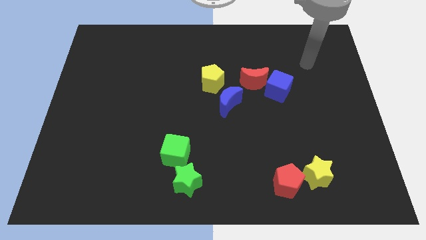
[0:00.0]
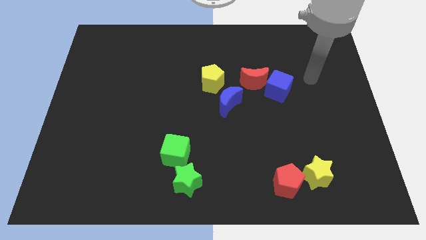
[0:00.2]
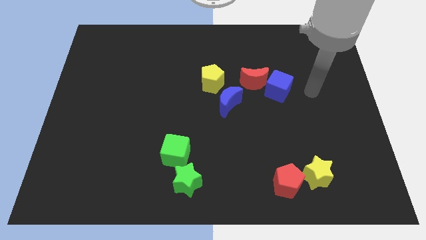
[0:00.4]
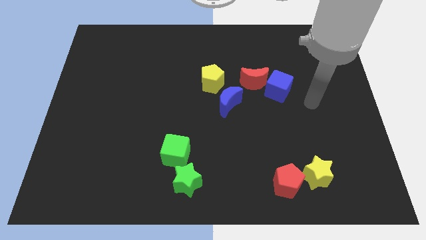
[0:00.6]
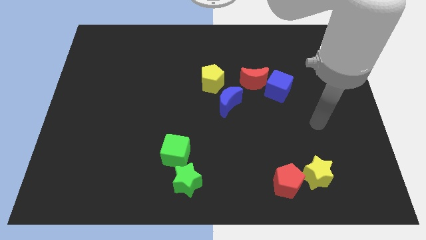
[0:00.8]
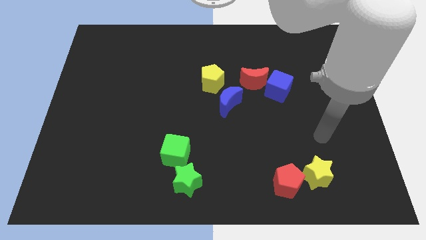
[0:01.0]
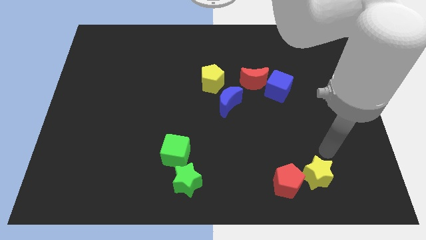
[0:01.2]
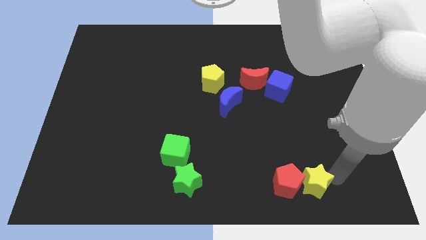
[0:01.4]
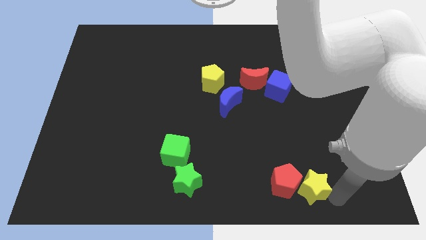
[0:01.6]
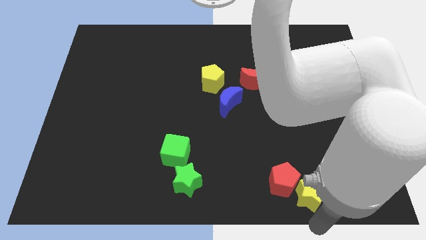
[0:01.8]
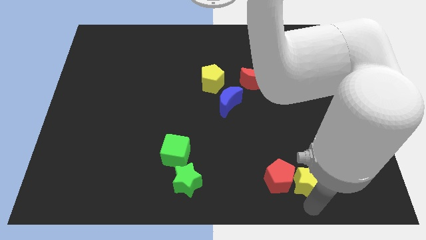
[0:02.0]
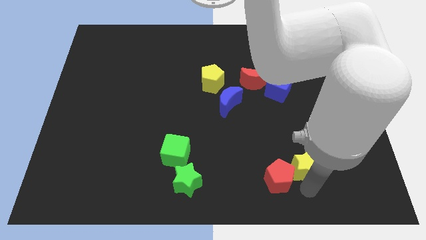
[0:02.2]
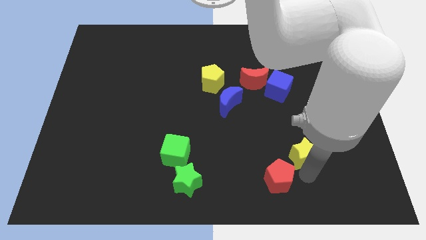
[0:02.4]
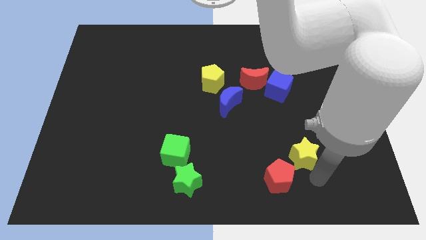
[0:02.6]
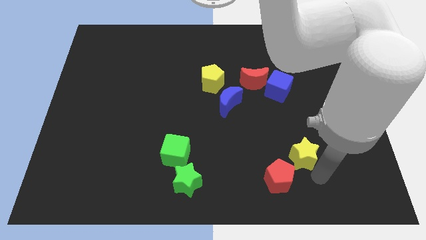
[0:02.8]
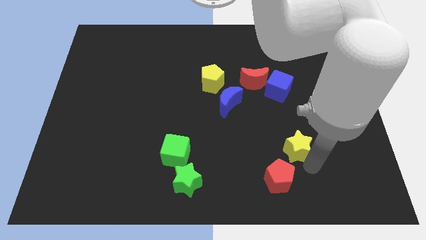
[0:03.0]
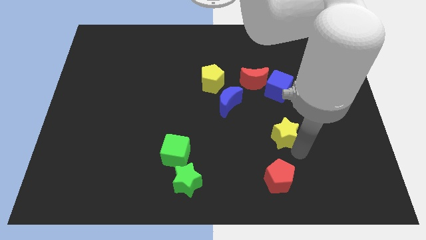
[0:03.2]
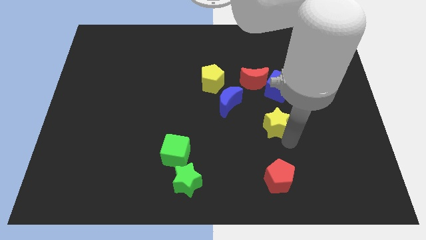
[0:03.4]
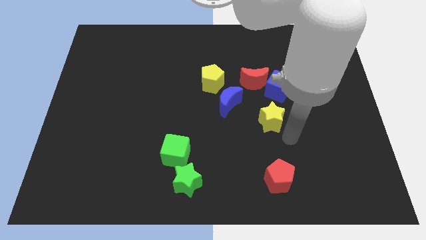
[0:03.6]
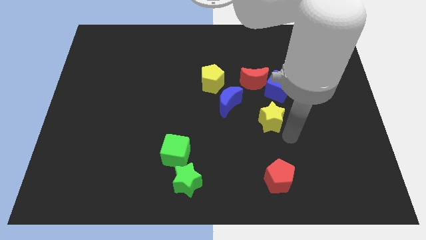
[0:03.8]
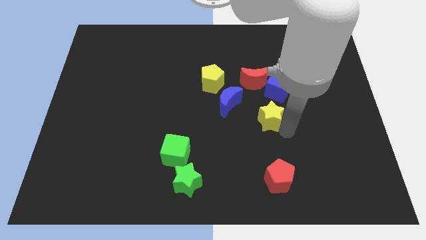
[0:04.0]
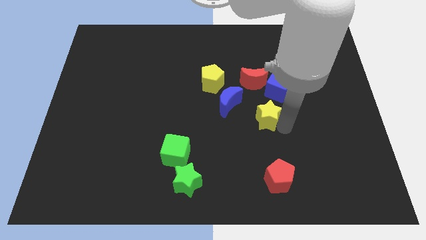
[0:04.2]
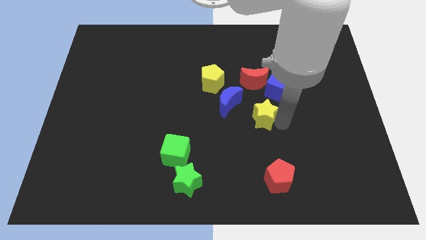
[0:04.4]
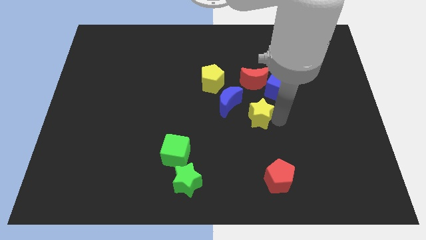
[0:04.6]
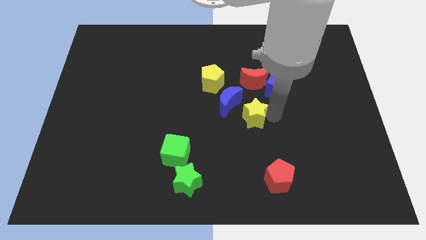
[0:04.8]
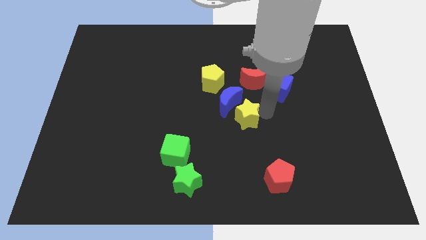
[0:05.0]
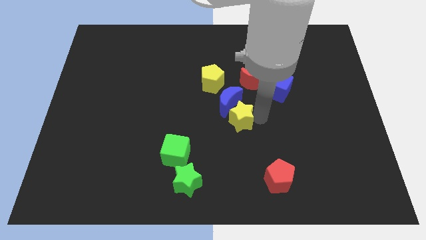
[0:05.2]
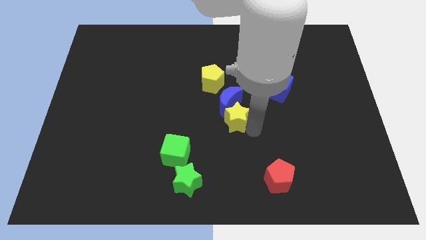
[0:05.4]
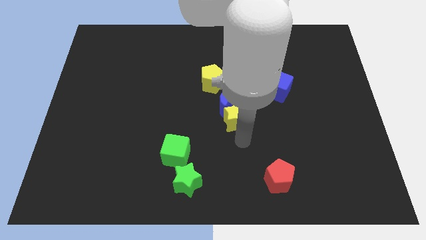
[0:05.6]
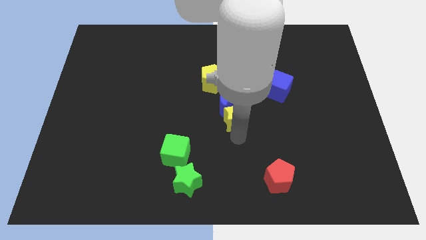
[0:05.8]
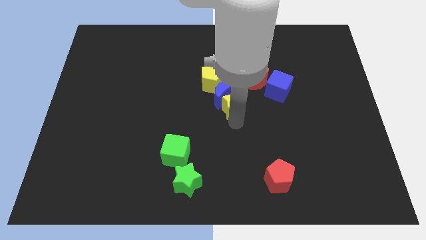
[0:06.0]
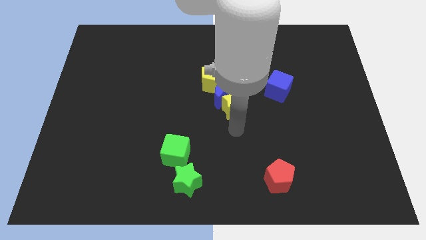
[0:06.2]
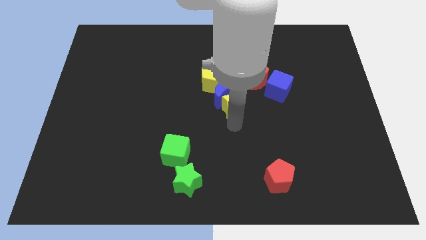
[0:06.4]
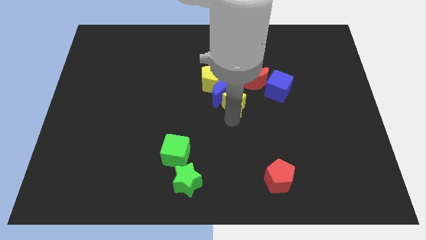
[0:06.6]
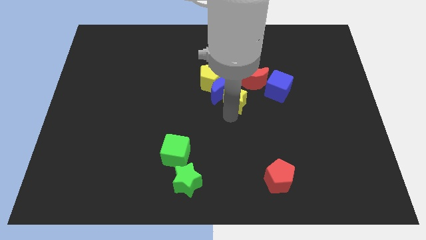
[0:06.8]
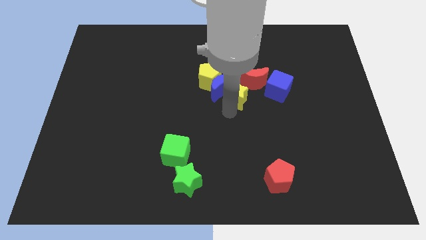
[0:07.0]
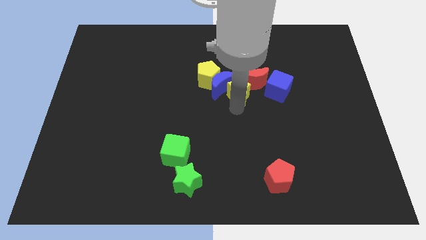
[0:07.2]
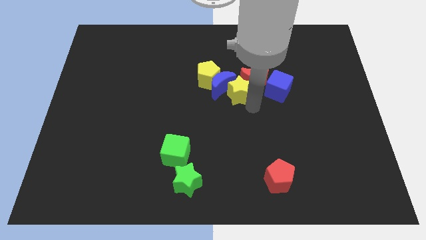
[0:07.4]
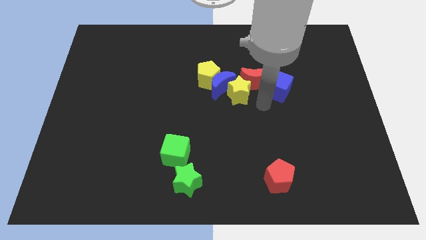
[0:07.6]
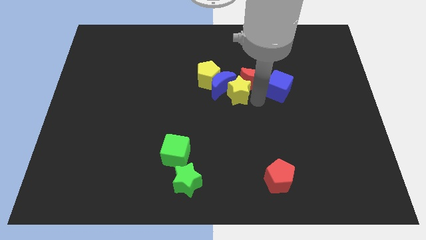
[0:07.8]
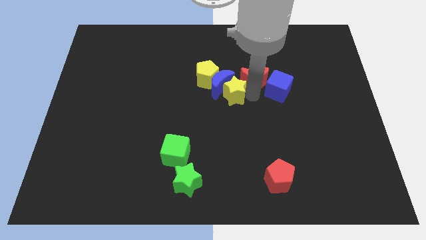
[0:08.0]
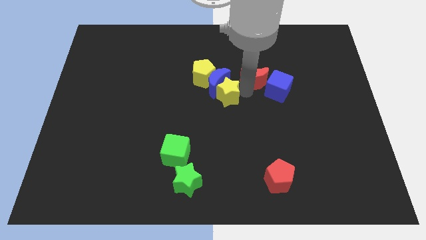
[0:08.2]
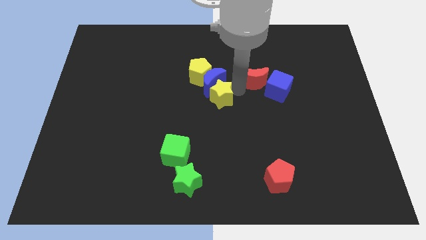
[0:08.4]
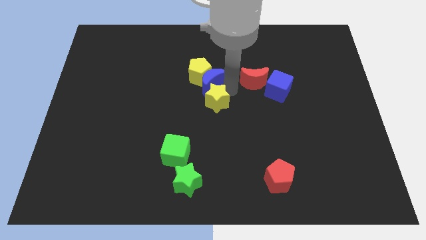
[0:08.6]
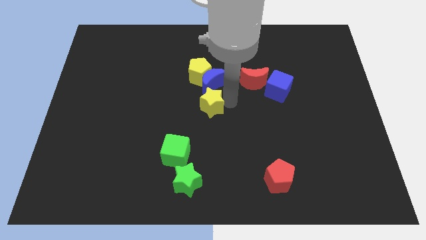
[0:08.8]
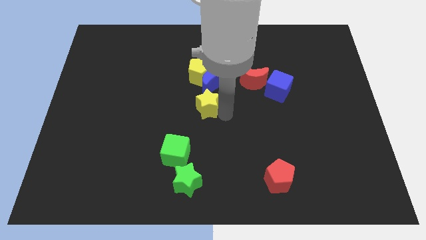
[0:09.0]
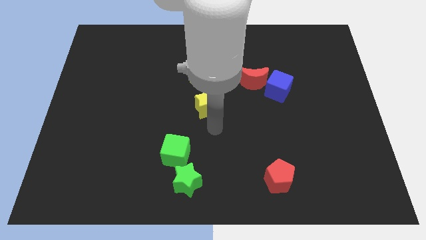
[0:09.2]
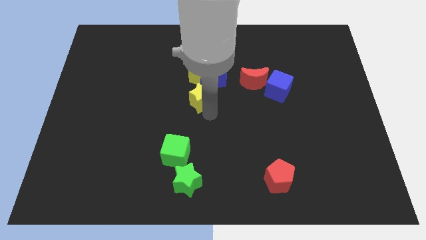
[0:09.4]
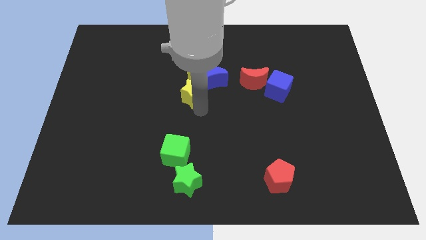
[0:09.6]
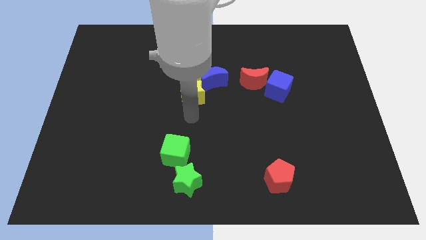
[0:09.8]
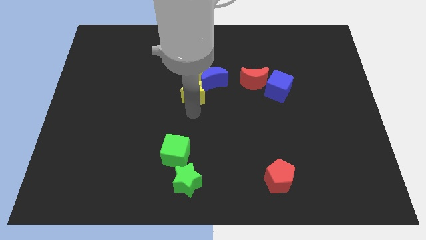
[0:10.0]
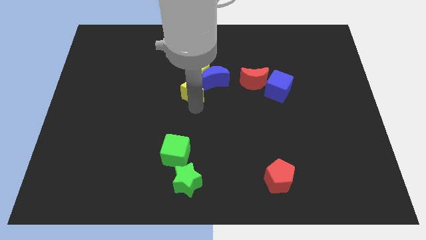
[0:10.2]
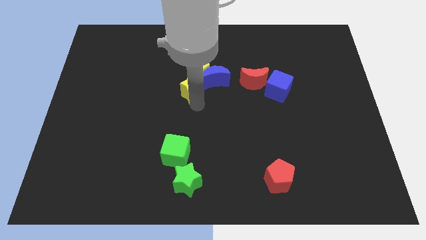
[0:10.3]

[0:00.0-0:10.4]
move the yellow star to the yellow pentagon

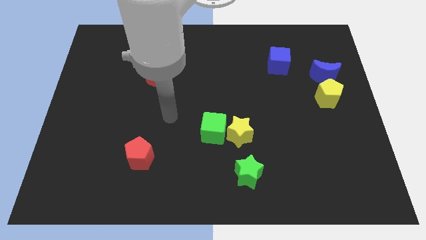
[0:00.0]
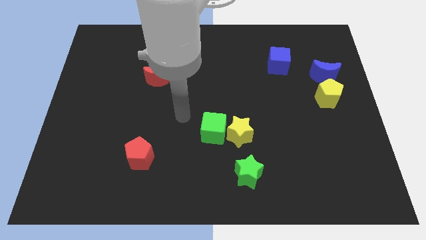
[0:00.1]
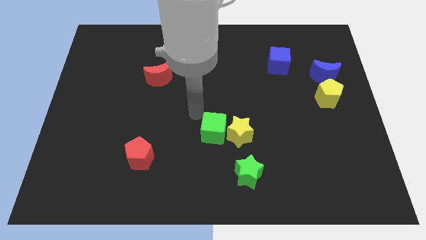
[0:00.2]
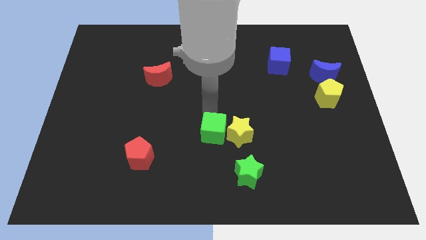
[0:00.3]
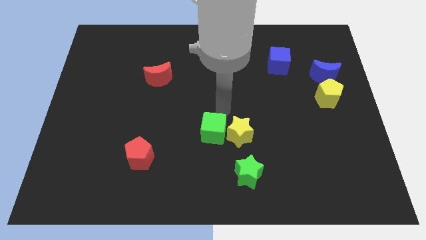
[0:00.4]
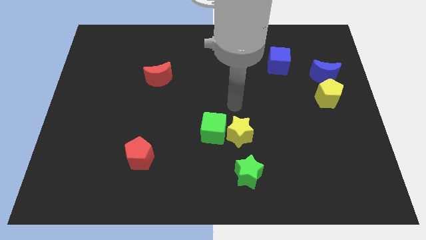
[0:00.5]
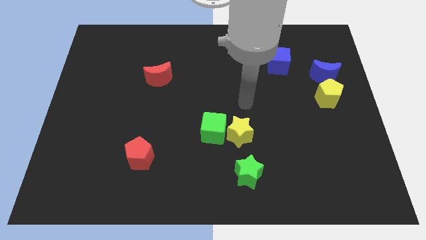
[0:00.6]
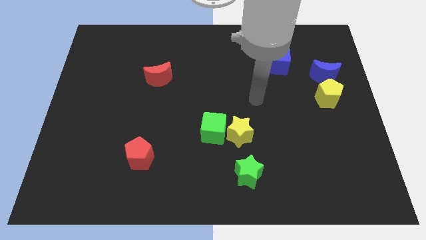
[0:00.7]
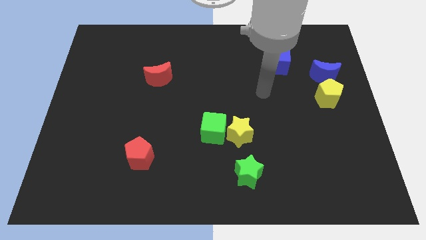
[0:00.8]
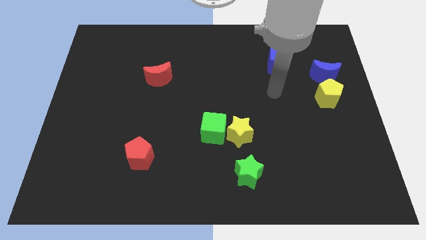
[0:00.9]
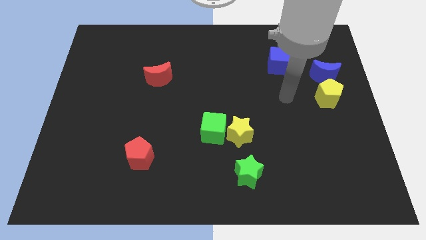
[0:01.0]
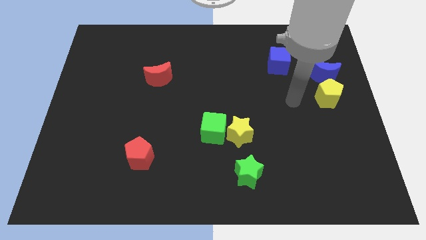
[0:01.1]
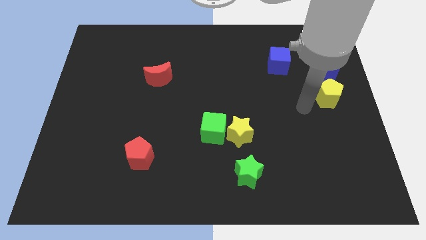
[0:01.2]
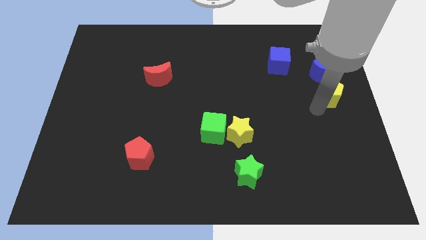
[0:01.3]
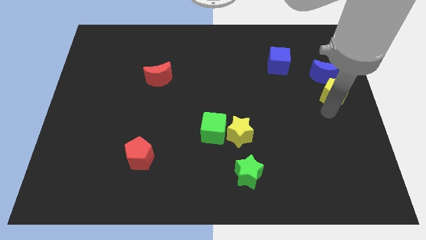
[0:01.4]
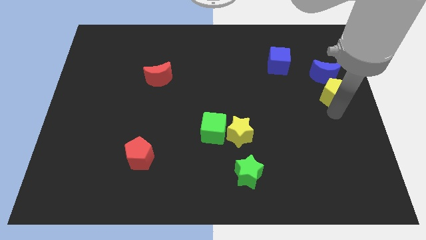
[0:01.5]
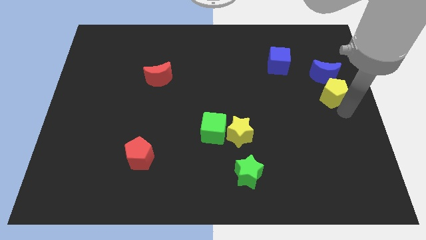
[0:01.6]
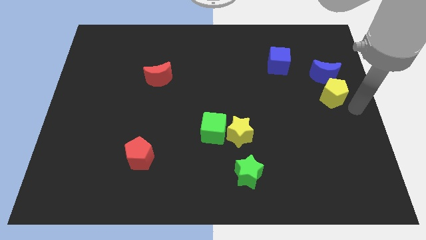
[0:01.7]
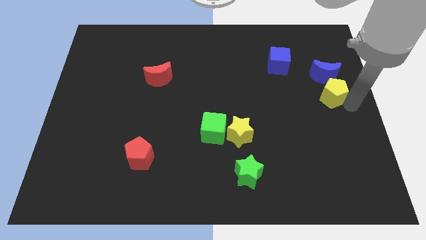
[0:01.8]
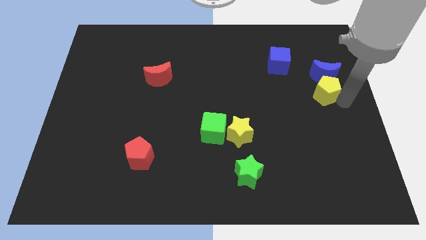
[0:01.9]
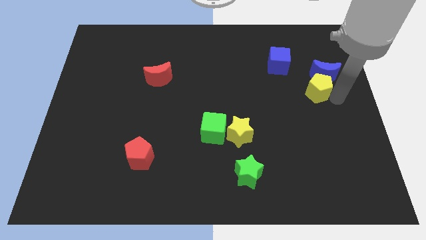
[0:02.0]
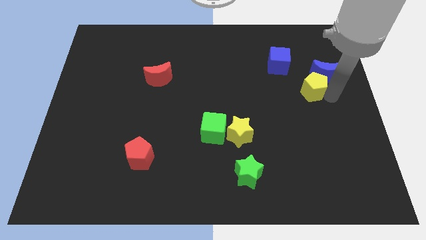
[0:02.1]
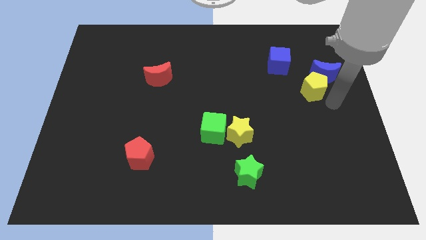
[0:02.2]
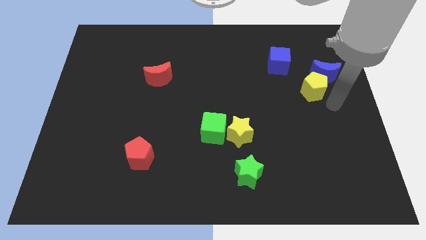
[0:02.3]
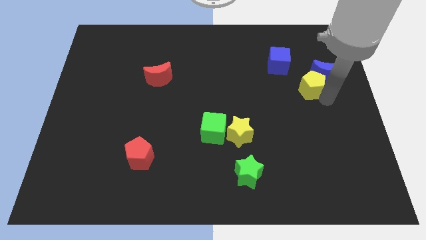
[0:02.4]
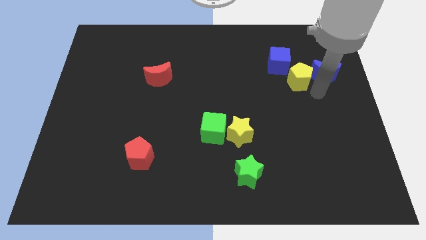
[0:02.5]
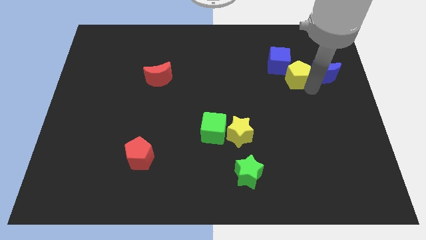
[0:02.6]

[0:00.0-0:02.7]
push the yellow pentagon next to the blue cube
